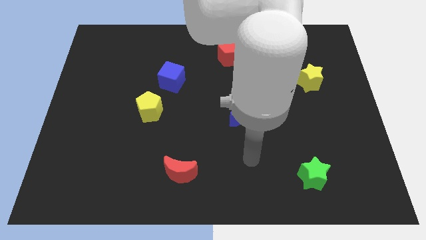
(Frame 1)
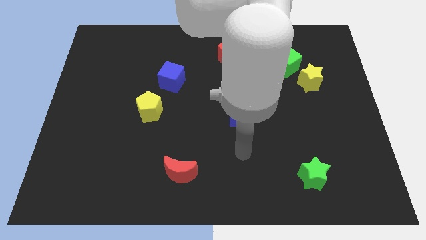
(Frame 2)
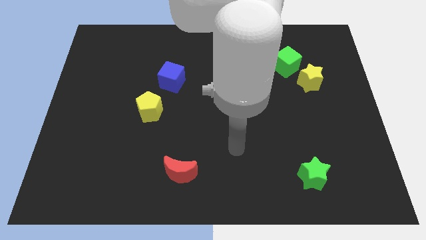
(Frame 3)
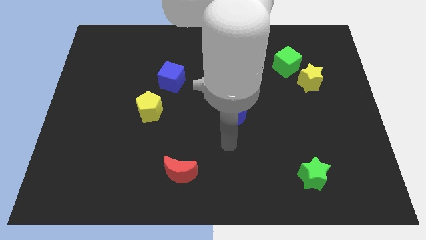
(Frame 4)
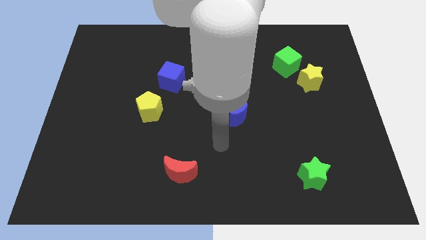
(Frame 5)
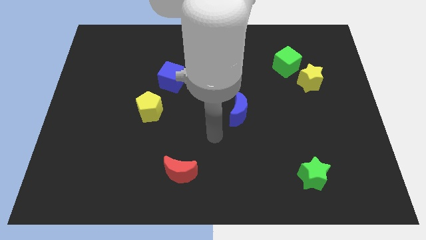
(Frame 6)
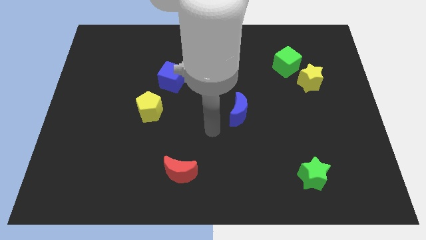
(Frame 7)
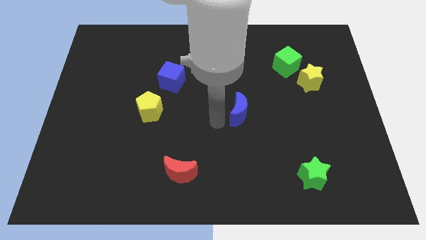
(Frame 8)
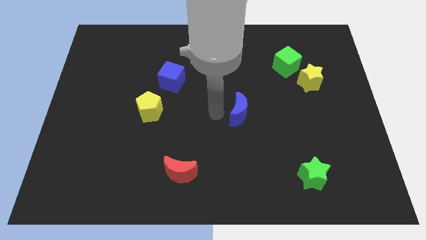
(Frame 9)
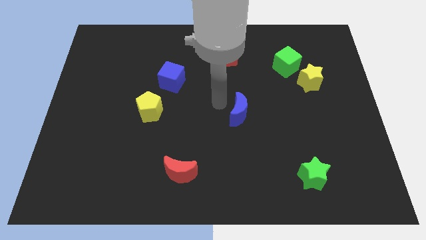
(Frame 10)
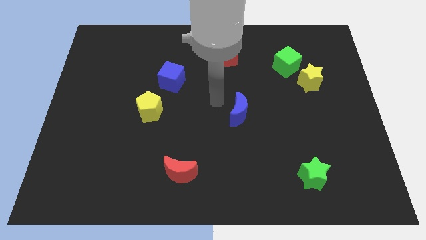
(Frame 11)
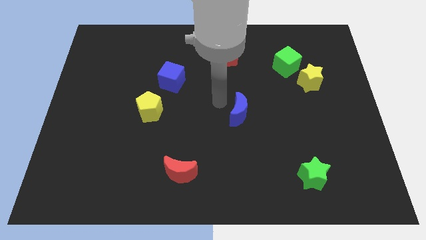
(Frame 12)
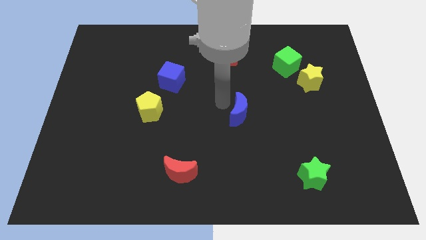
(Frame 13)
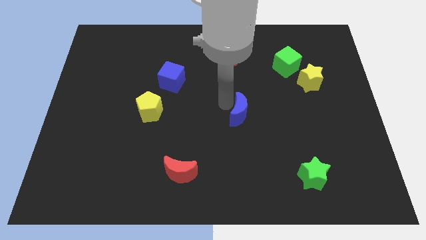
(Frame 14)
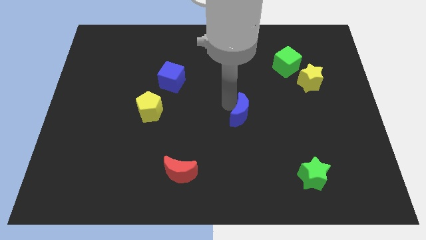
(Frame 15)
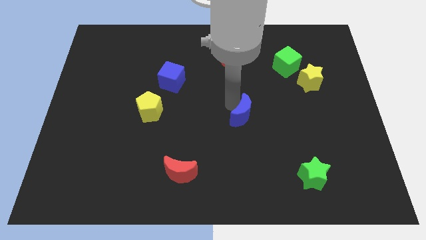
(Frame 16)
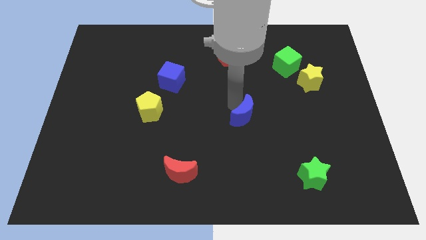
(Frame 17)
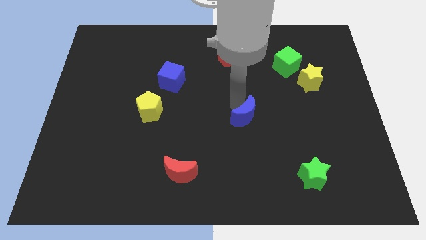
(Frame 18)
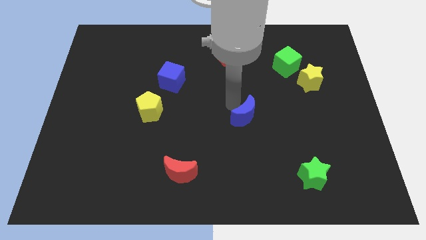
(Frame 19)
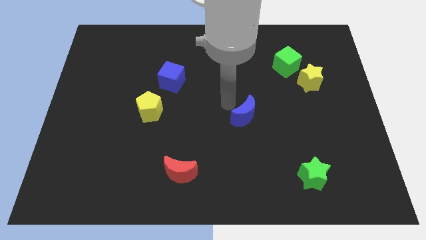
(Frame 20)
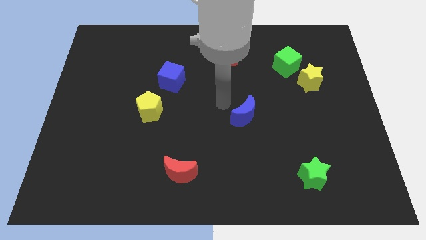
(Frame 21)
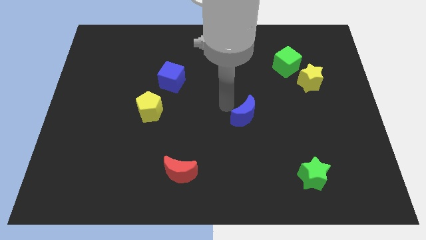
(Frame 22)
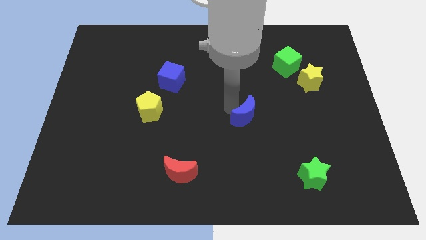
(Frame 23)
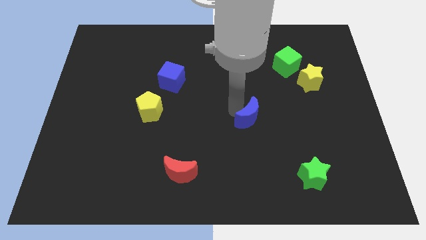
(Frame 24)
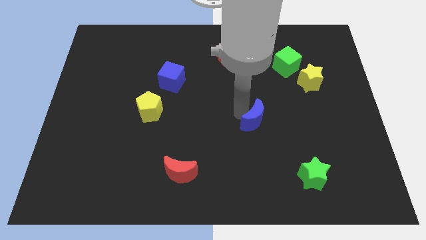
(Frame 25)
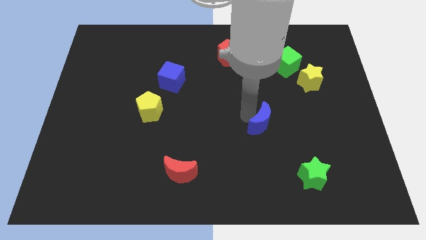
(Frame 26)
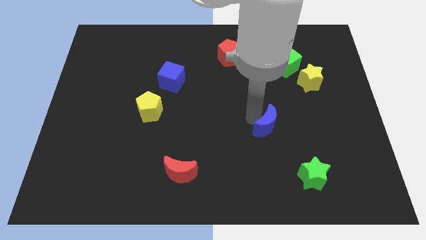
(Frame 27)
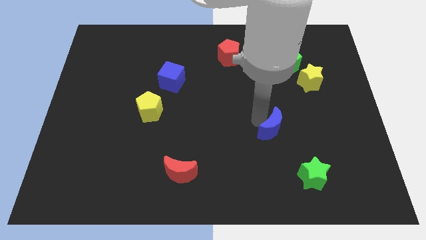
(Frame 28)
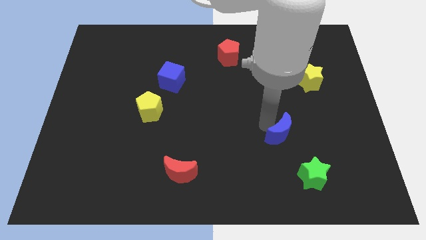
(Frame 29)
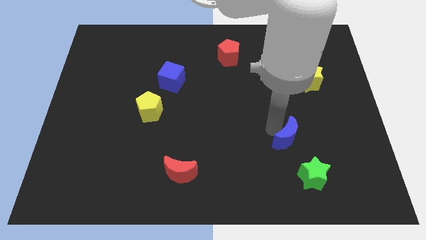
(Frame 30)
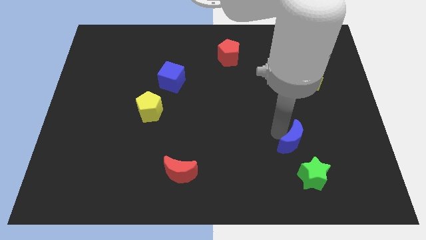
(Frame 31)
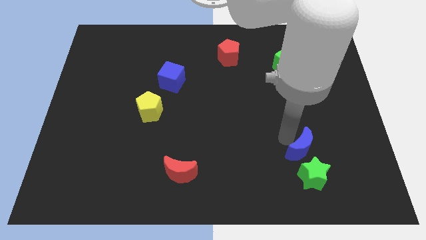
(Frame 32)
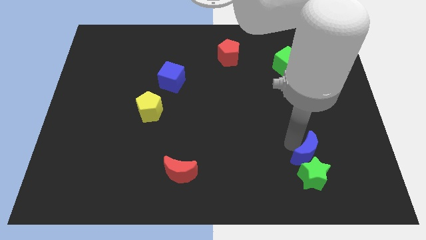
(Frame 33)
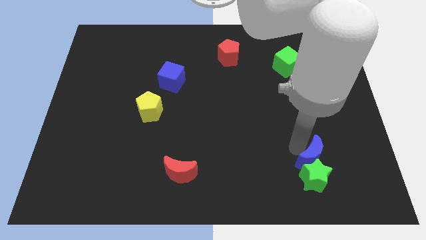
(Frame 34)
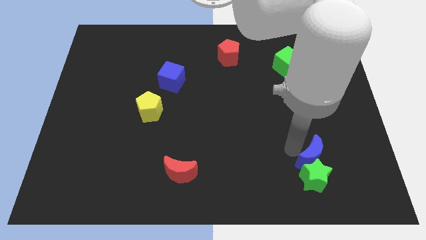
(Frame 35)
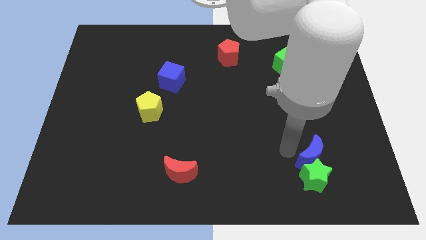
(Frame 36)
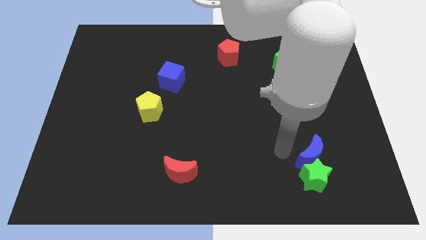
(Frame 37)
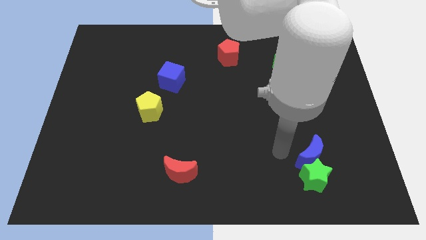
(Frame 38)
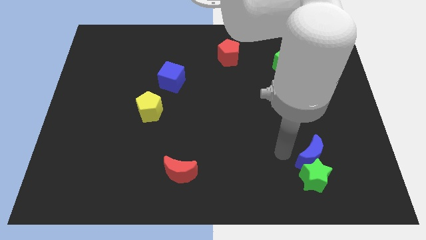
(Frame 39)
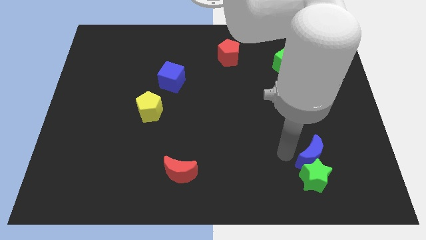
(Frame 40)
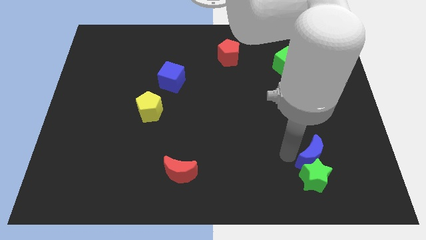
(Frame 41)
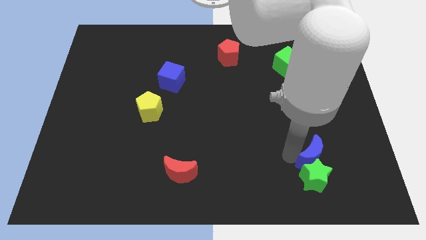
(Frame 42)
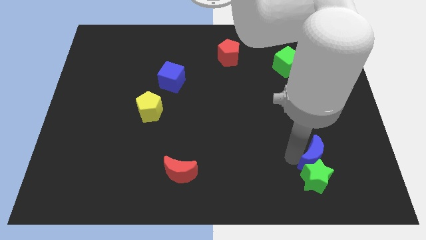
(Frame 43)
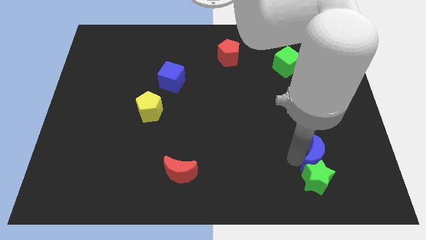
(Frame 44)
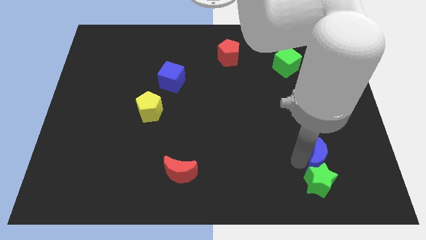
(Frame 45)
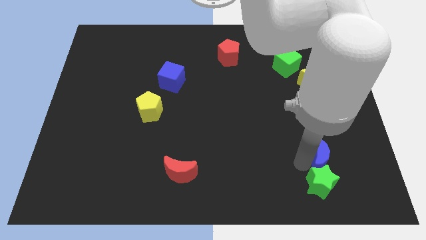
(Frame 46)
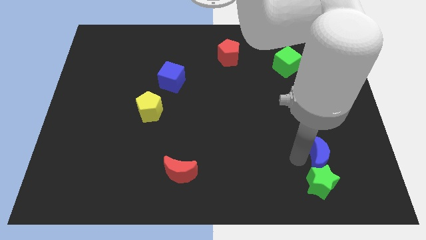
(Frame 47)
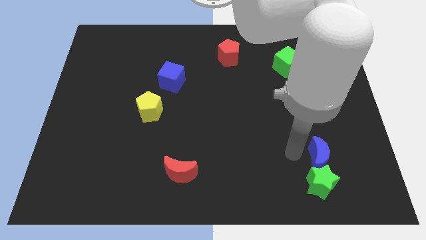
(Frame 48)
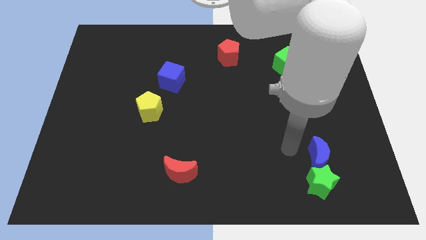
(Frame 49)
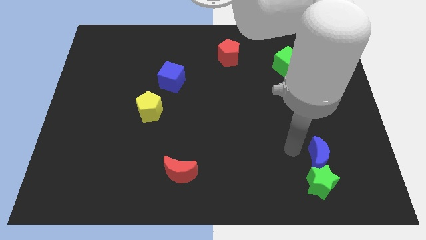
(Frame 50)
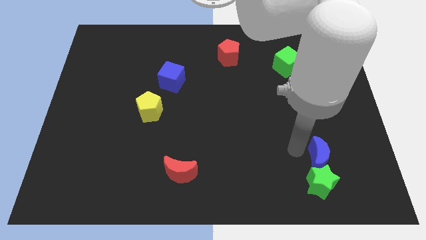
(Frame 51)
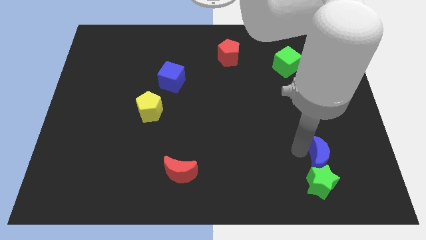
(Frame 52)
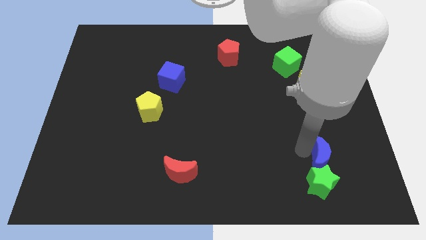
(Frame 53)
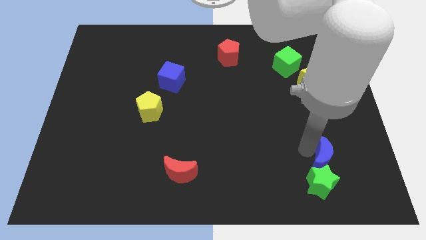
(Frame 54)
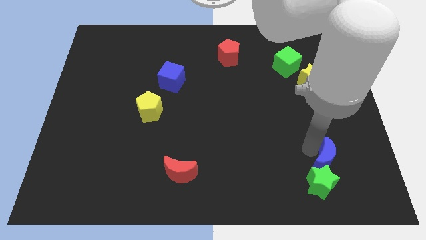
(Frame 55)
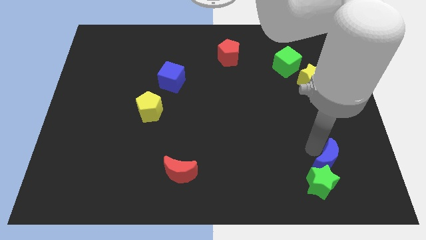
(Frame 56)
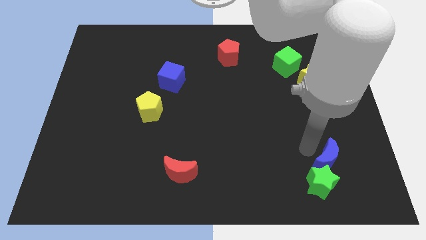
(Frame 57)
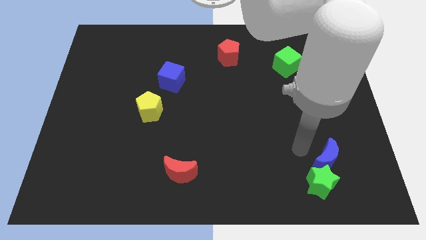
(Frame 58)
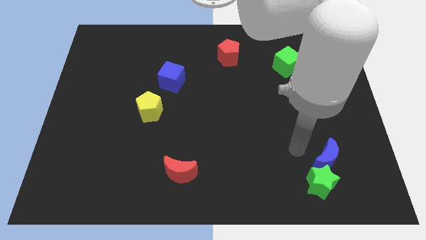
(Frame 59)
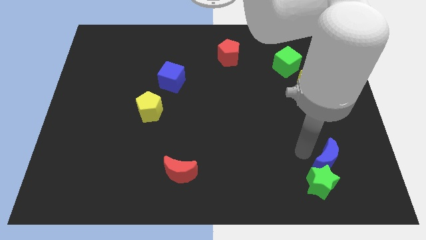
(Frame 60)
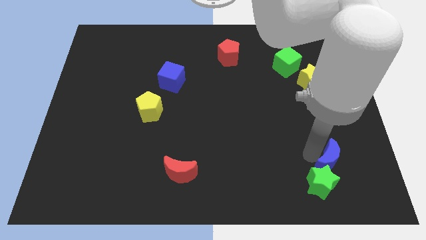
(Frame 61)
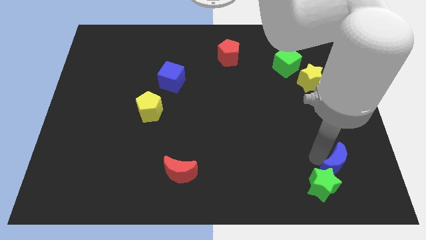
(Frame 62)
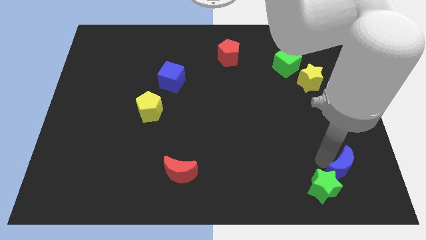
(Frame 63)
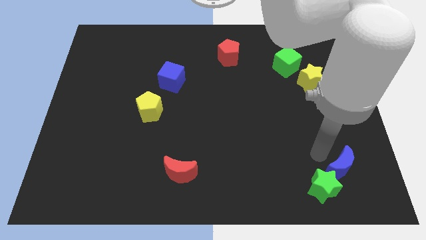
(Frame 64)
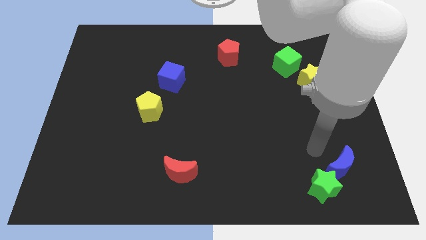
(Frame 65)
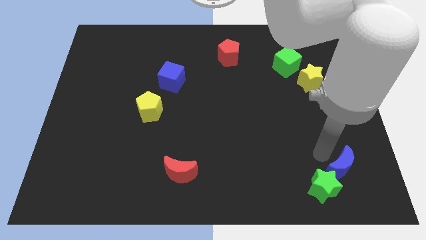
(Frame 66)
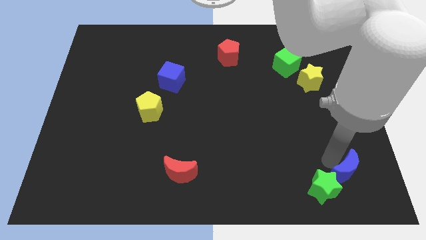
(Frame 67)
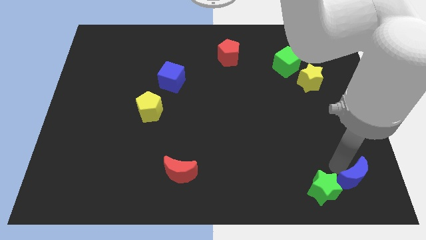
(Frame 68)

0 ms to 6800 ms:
move the blue moon to the bottom right corner
